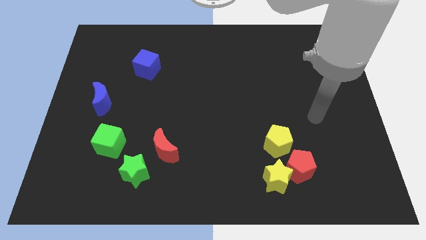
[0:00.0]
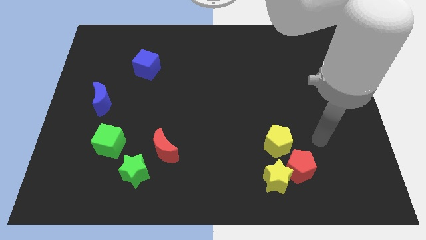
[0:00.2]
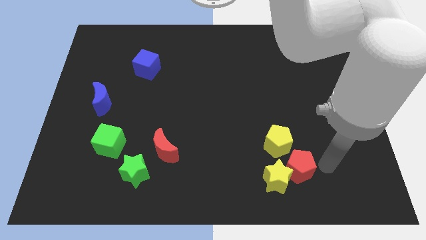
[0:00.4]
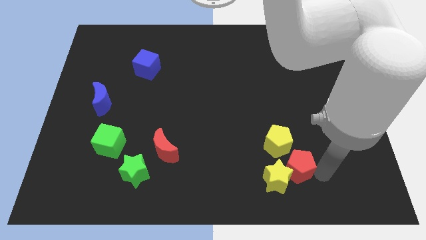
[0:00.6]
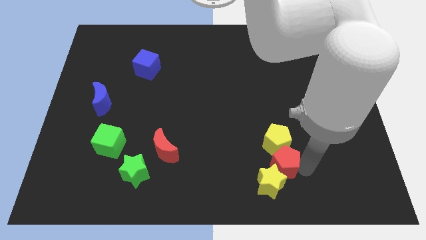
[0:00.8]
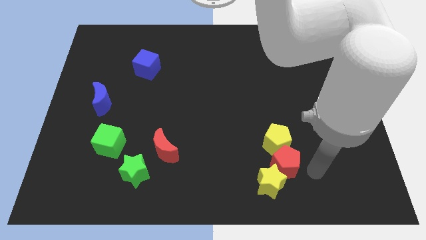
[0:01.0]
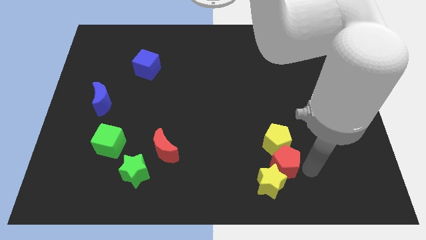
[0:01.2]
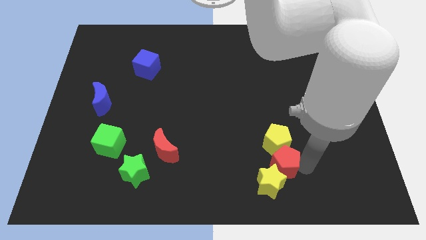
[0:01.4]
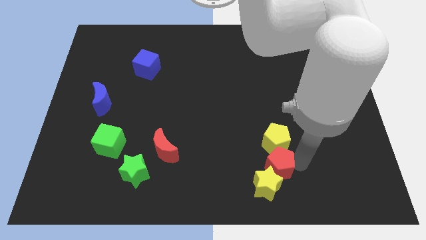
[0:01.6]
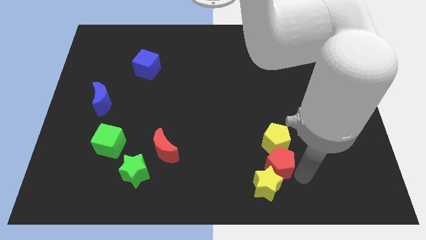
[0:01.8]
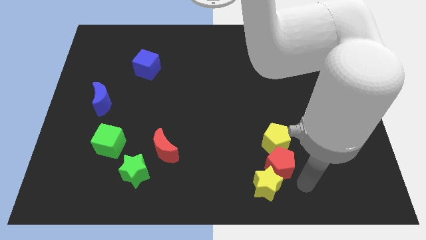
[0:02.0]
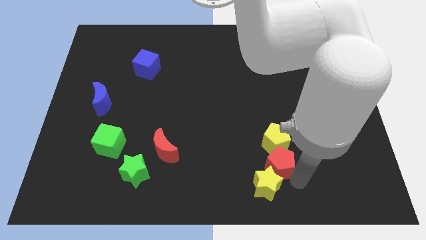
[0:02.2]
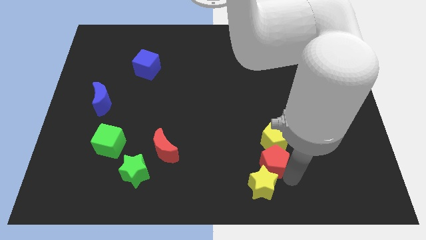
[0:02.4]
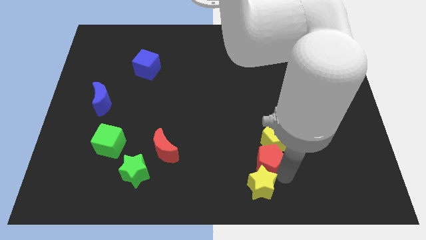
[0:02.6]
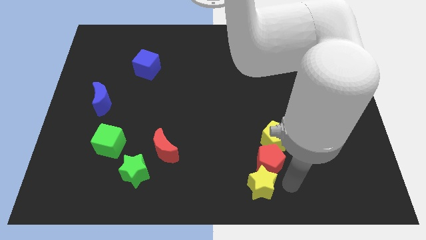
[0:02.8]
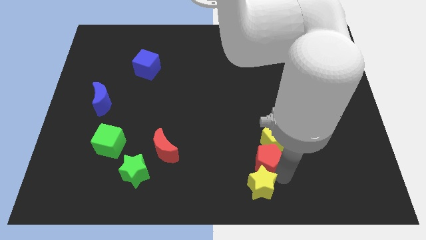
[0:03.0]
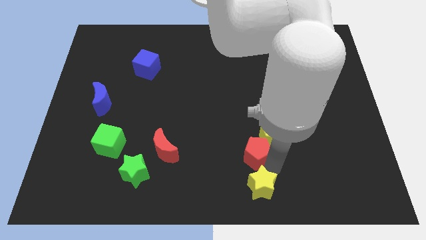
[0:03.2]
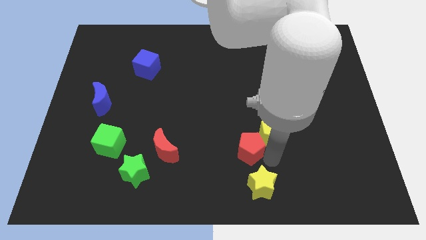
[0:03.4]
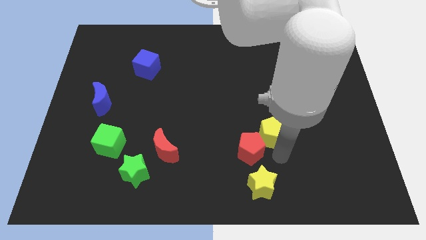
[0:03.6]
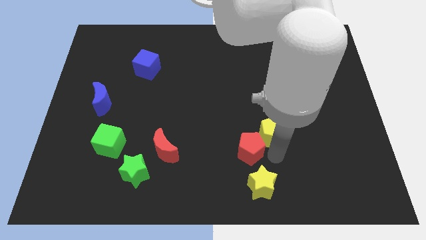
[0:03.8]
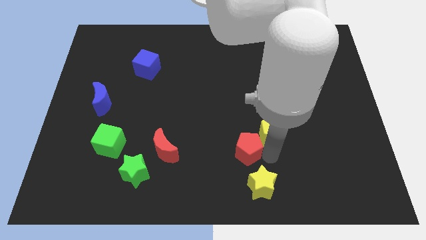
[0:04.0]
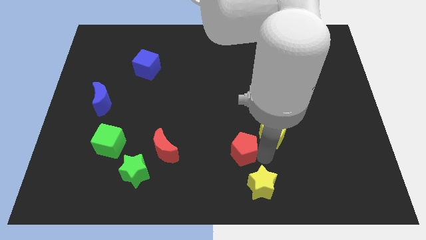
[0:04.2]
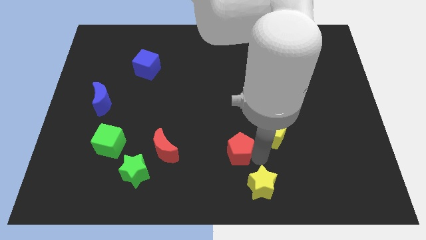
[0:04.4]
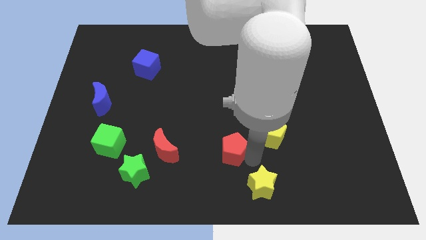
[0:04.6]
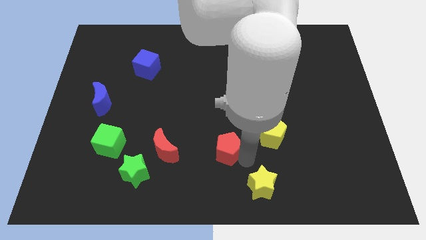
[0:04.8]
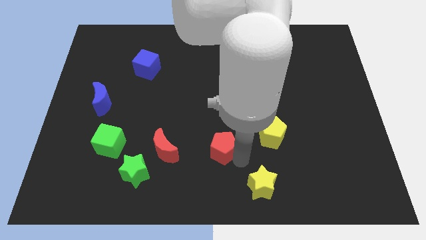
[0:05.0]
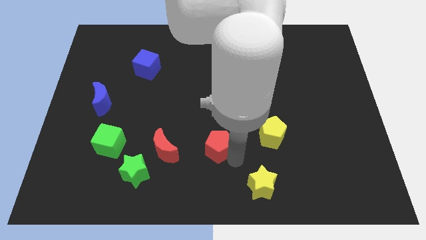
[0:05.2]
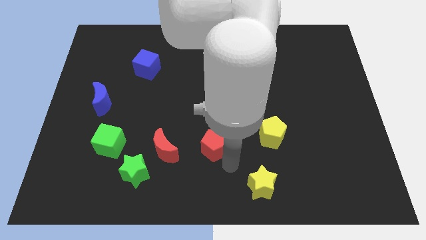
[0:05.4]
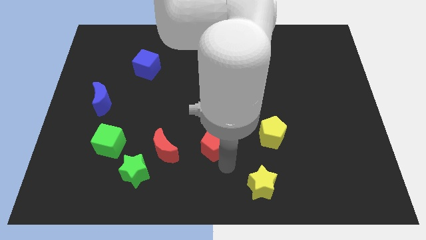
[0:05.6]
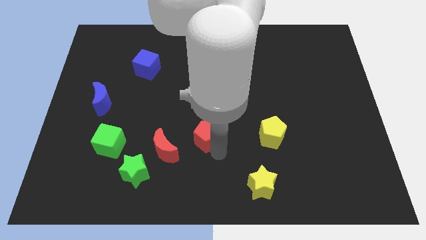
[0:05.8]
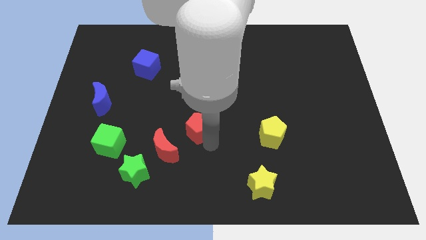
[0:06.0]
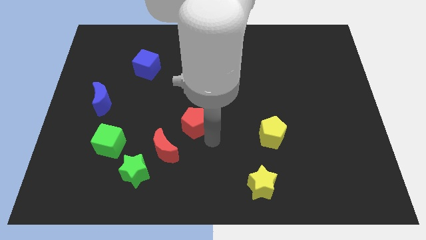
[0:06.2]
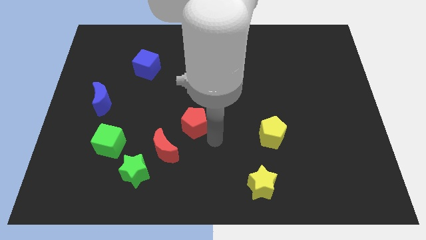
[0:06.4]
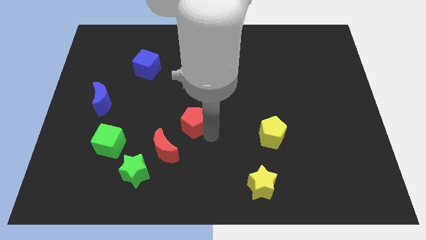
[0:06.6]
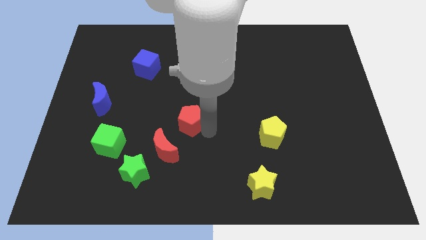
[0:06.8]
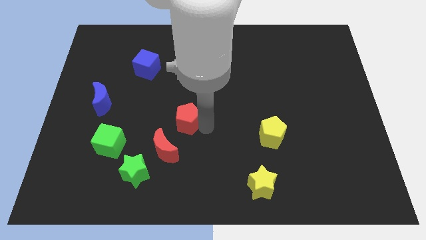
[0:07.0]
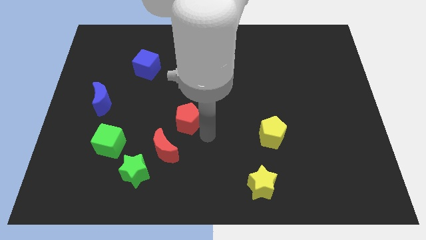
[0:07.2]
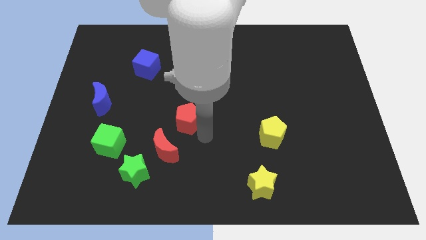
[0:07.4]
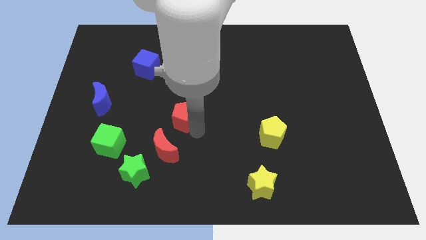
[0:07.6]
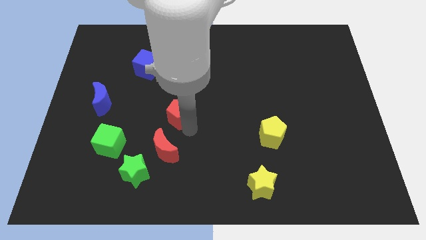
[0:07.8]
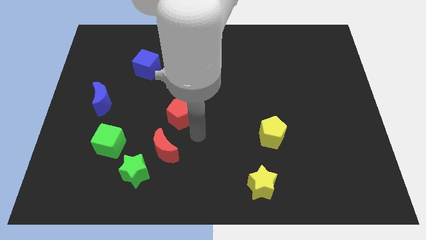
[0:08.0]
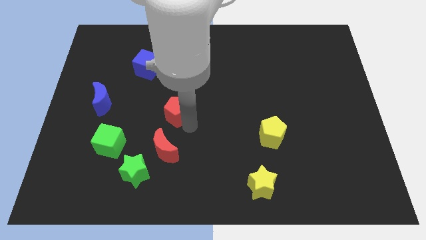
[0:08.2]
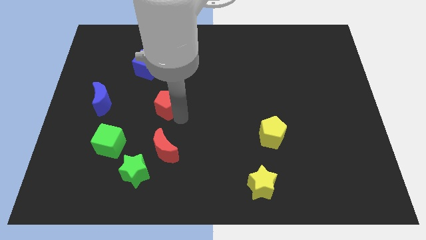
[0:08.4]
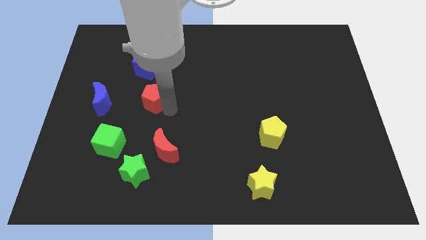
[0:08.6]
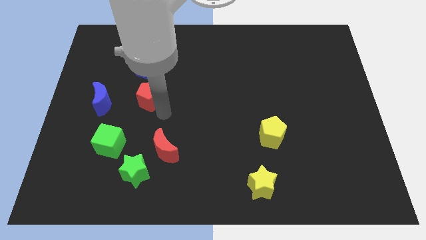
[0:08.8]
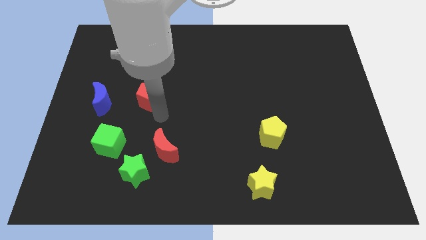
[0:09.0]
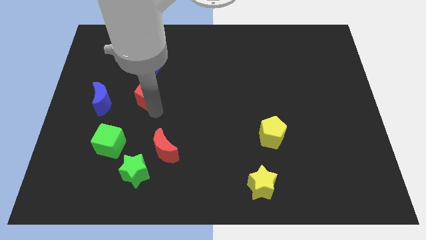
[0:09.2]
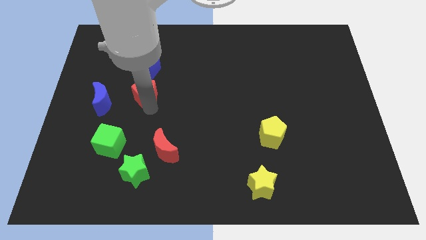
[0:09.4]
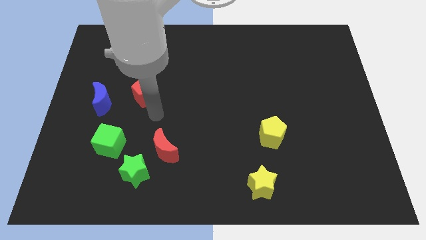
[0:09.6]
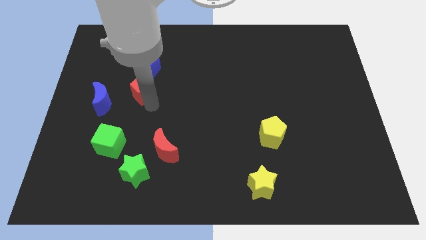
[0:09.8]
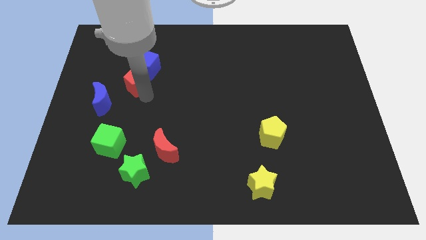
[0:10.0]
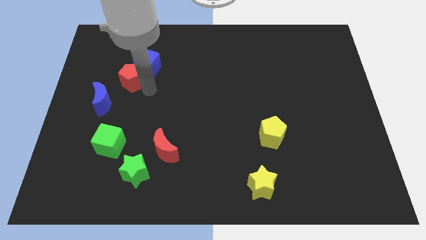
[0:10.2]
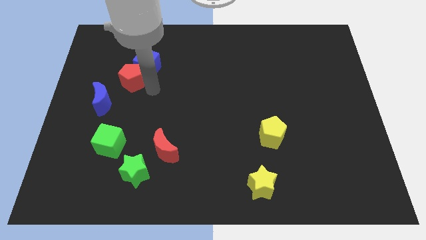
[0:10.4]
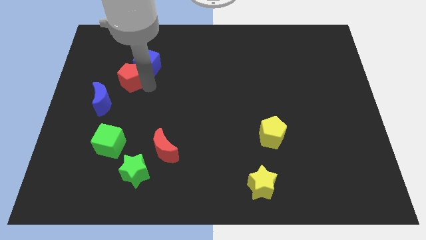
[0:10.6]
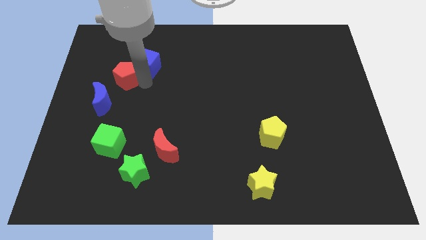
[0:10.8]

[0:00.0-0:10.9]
slide the red pentagon to the top side of the blue moon
